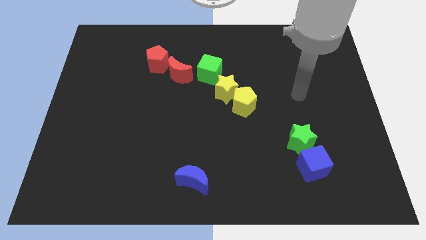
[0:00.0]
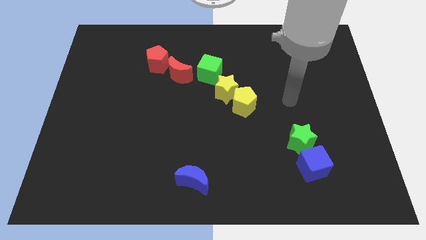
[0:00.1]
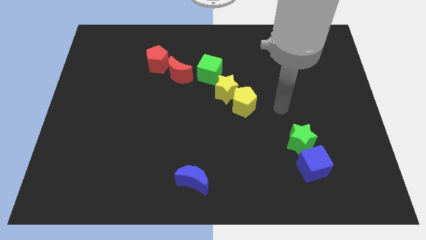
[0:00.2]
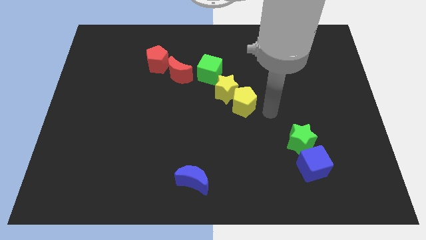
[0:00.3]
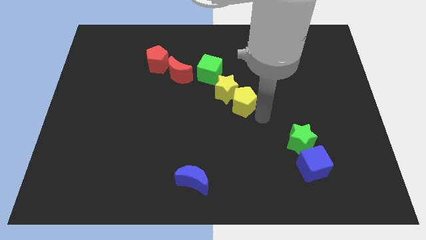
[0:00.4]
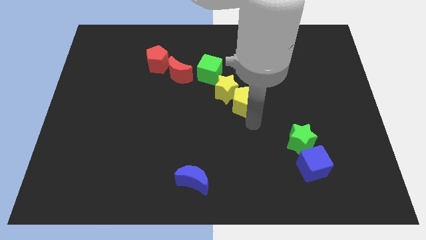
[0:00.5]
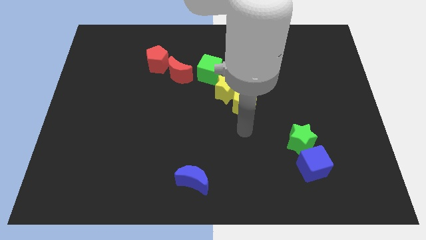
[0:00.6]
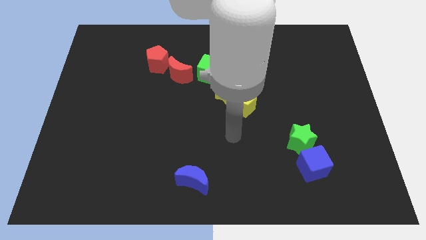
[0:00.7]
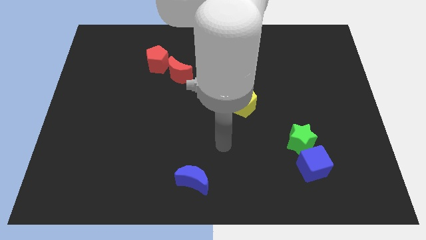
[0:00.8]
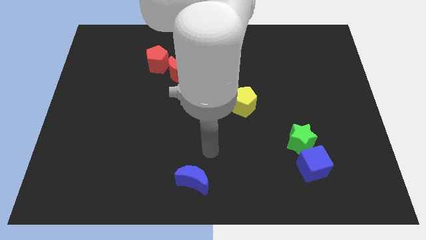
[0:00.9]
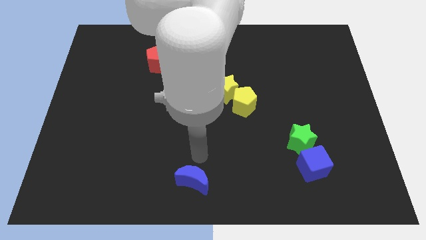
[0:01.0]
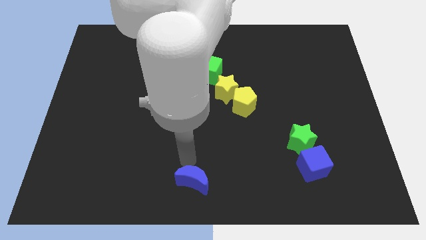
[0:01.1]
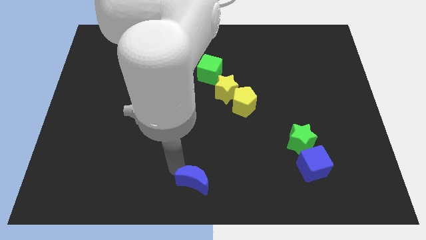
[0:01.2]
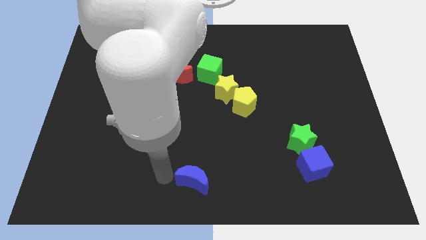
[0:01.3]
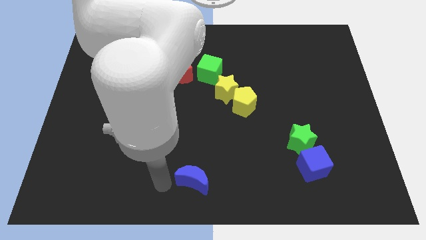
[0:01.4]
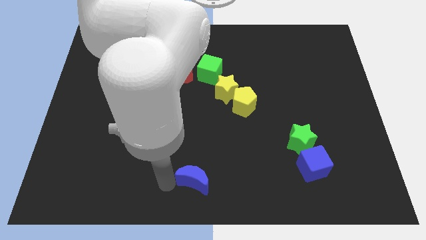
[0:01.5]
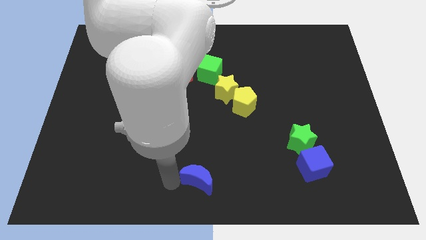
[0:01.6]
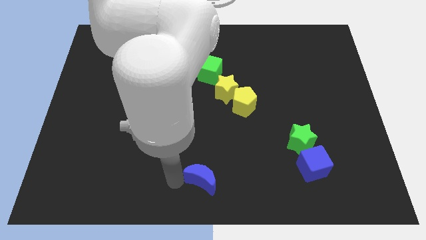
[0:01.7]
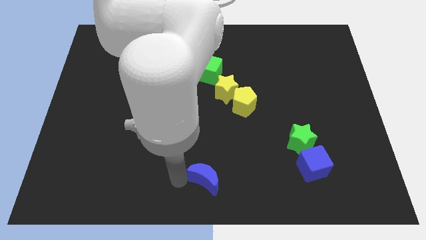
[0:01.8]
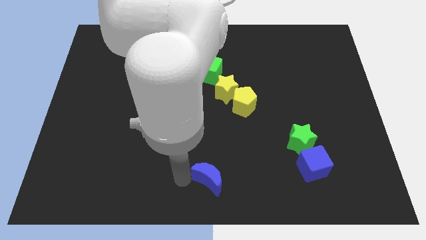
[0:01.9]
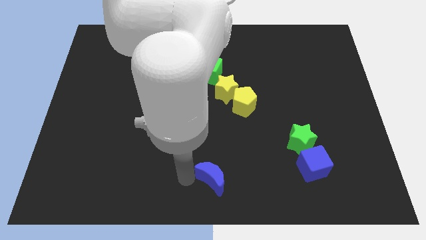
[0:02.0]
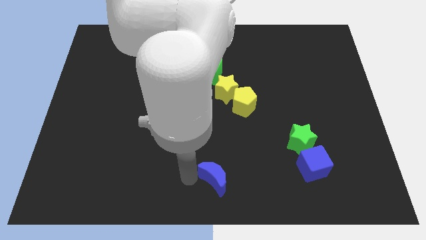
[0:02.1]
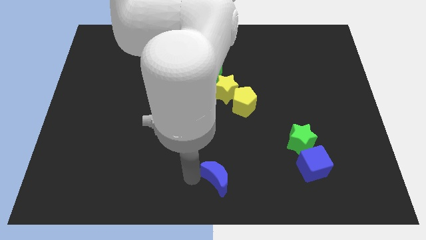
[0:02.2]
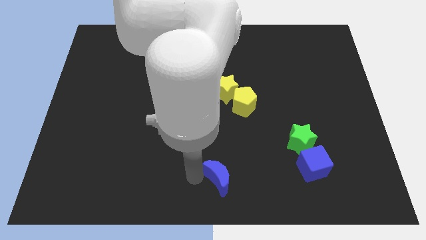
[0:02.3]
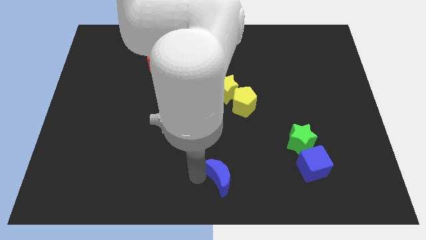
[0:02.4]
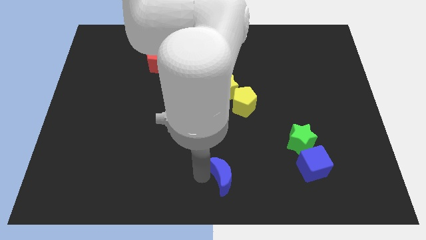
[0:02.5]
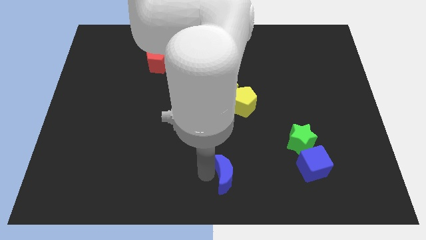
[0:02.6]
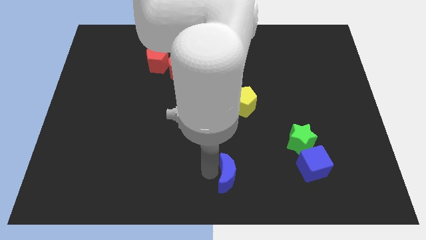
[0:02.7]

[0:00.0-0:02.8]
slightly slide the blue moon right

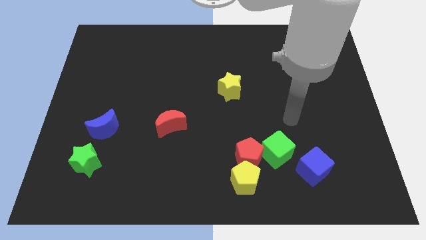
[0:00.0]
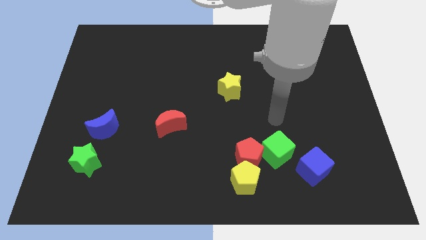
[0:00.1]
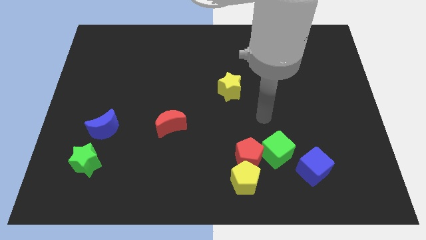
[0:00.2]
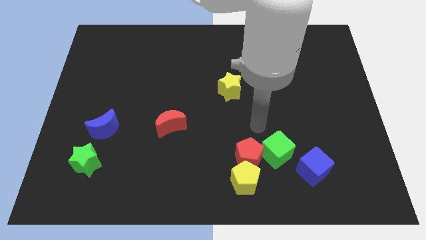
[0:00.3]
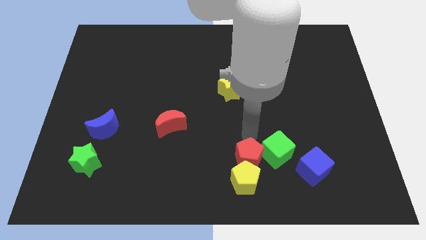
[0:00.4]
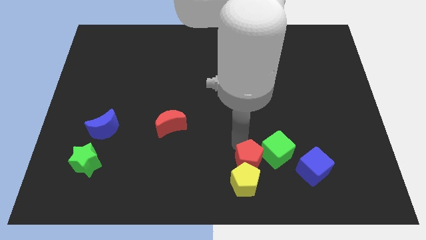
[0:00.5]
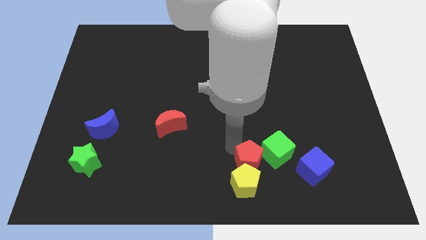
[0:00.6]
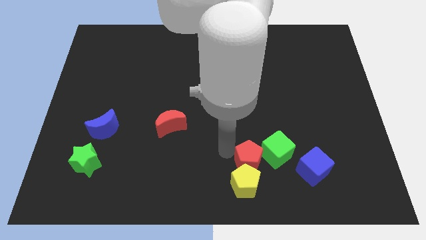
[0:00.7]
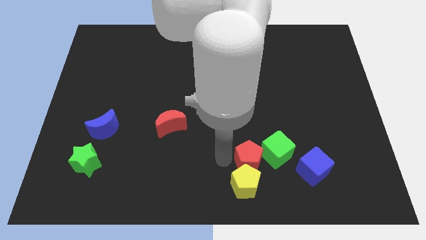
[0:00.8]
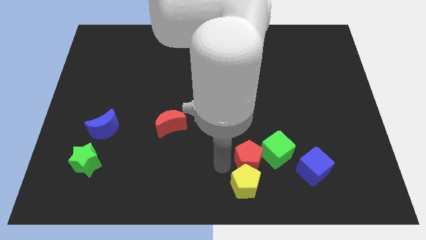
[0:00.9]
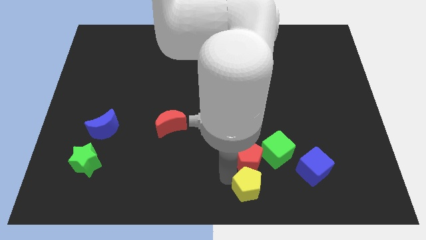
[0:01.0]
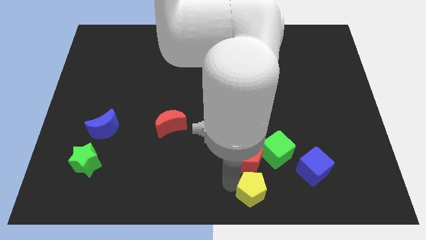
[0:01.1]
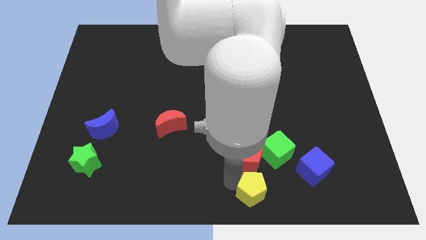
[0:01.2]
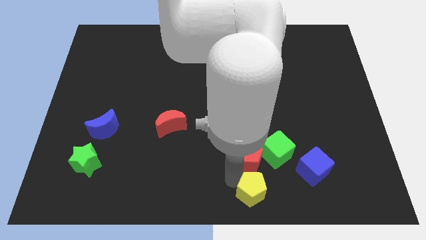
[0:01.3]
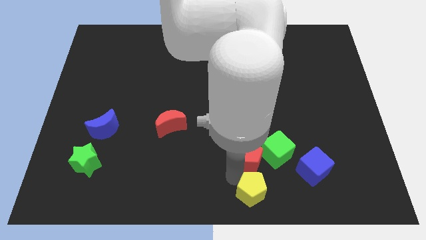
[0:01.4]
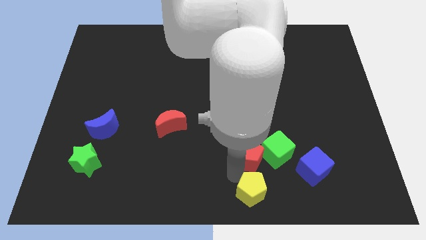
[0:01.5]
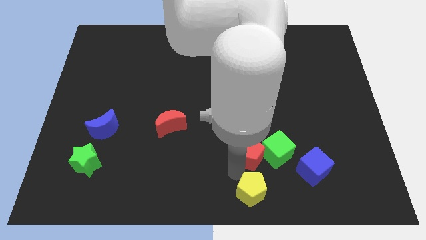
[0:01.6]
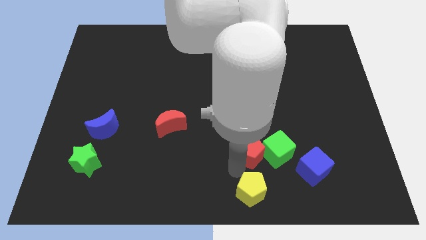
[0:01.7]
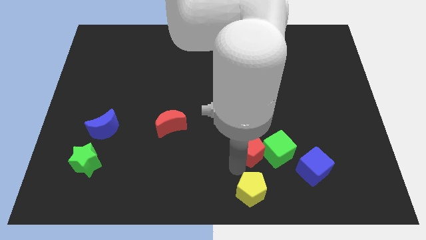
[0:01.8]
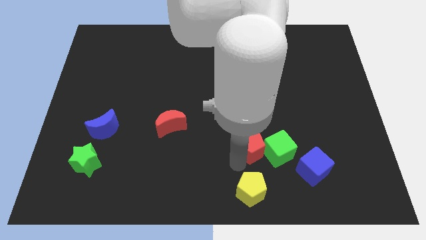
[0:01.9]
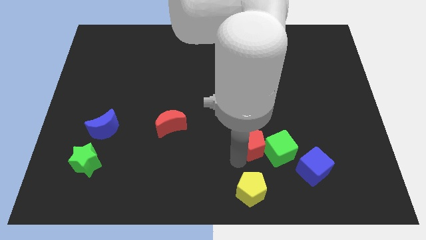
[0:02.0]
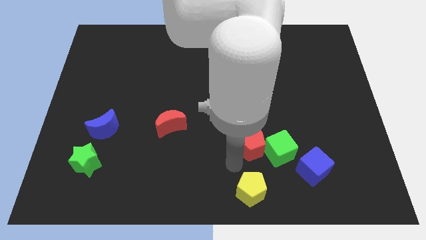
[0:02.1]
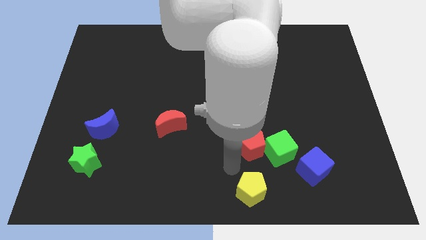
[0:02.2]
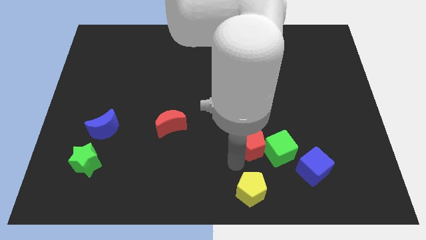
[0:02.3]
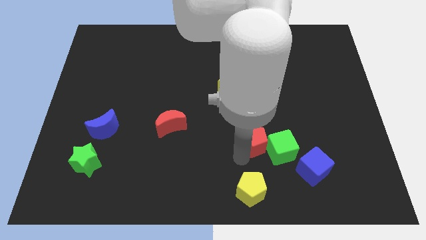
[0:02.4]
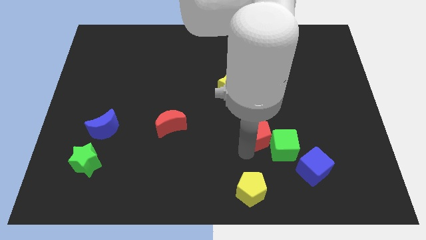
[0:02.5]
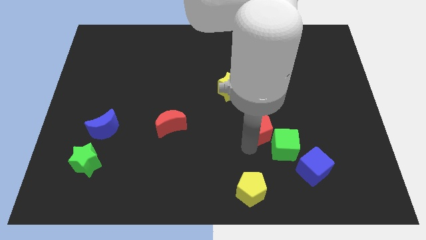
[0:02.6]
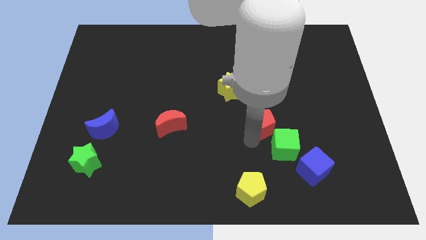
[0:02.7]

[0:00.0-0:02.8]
slightly move the red pentagon upwards and right

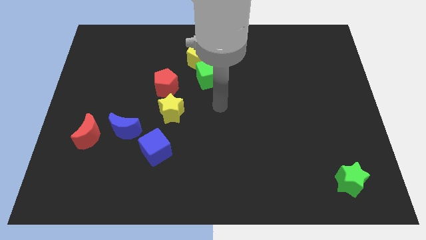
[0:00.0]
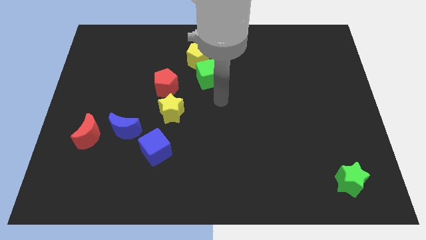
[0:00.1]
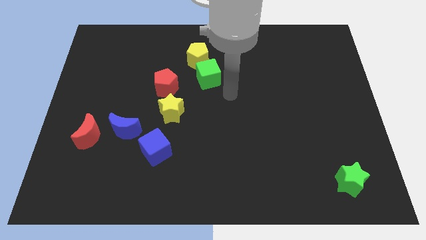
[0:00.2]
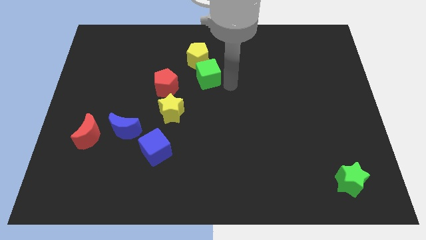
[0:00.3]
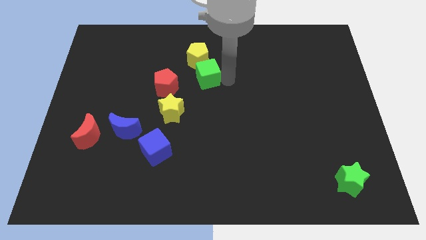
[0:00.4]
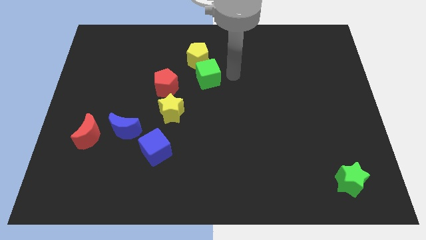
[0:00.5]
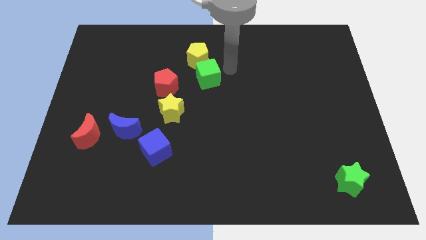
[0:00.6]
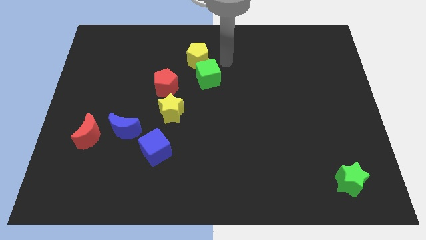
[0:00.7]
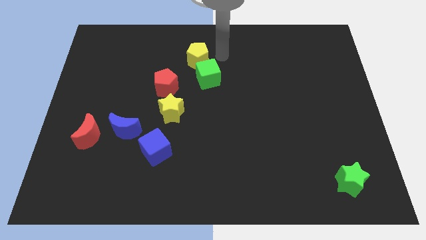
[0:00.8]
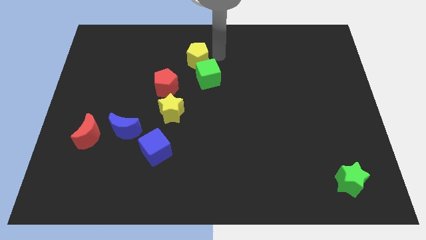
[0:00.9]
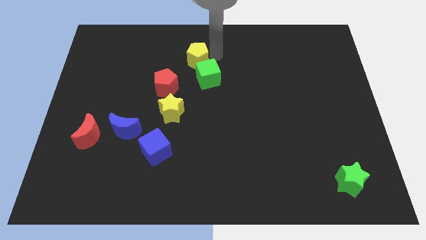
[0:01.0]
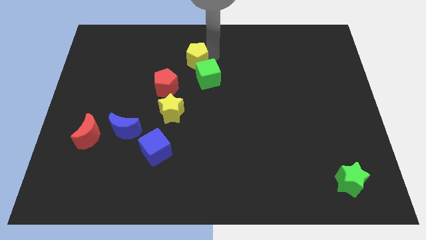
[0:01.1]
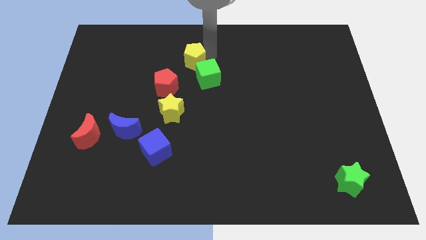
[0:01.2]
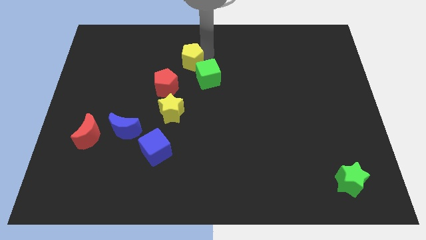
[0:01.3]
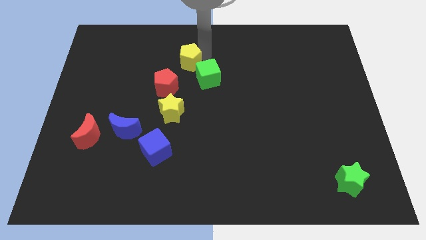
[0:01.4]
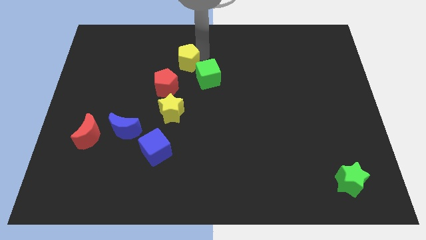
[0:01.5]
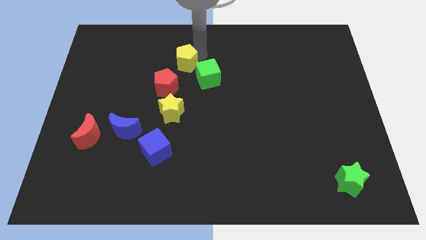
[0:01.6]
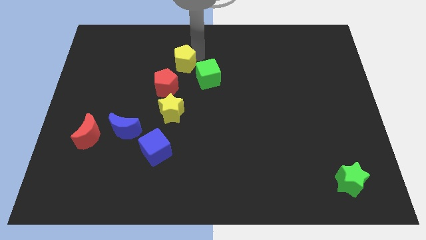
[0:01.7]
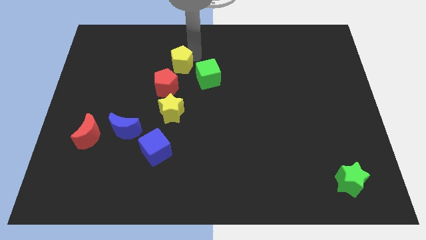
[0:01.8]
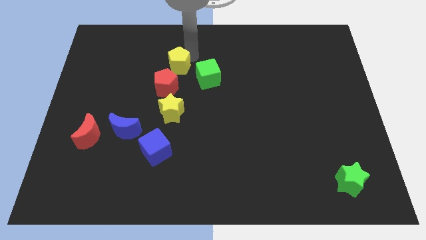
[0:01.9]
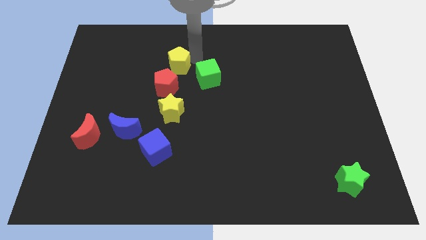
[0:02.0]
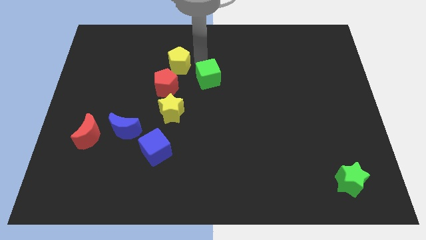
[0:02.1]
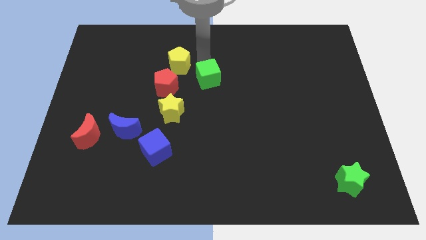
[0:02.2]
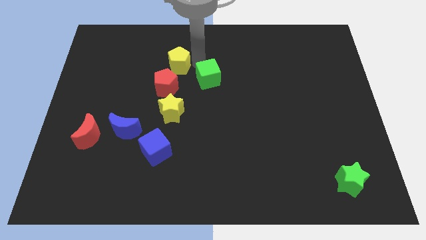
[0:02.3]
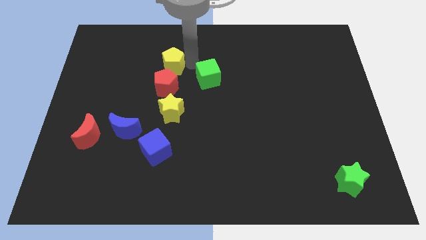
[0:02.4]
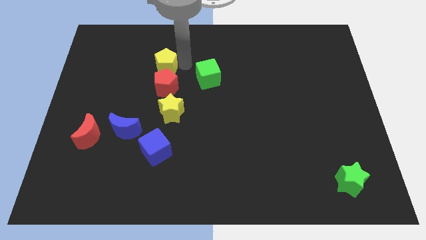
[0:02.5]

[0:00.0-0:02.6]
slightly push the yellow pentagon to the left
